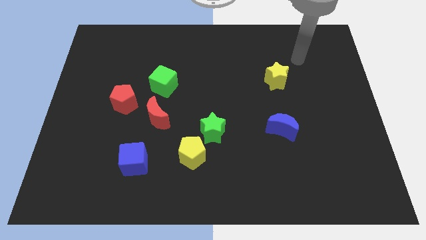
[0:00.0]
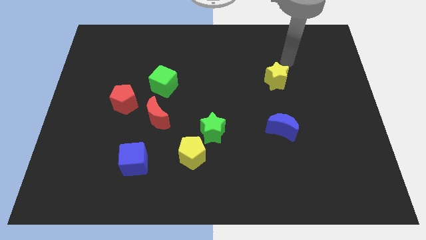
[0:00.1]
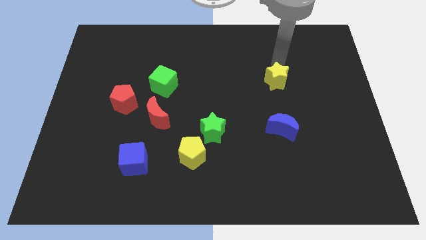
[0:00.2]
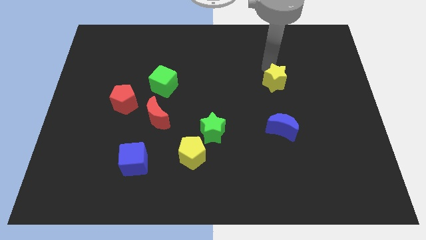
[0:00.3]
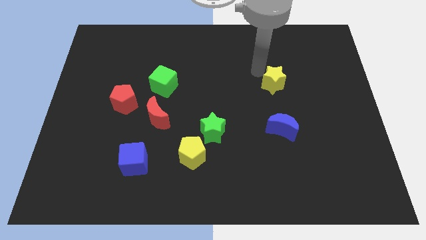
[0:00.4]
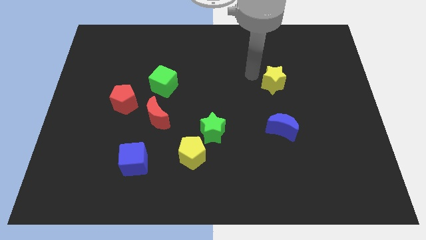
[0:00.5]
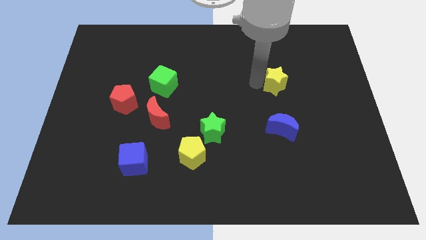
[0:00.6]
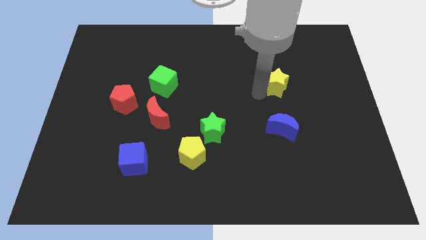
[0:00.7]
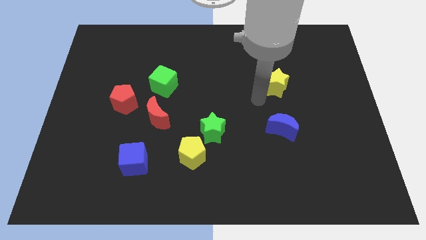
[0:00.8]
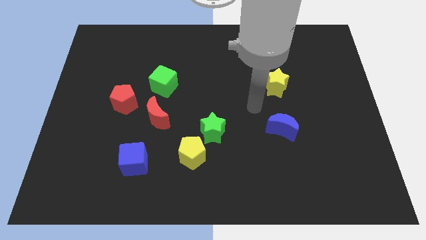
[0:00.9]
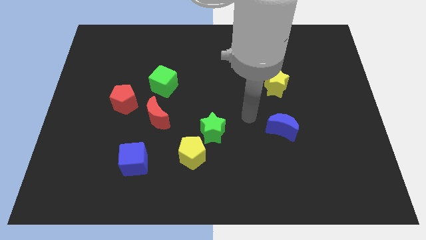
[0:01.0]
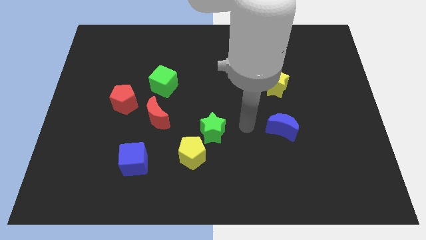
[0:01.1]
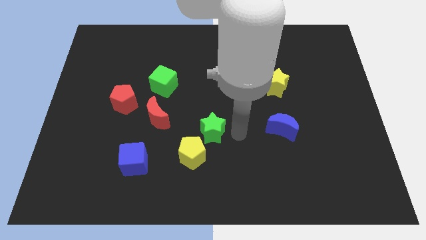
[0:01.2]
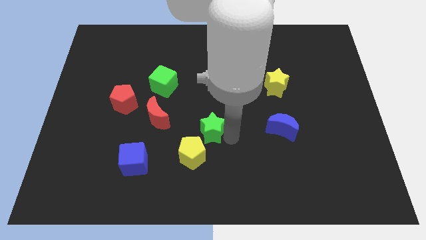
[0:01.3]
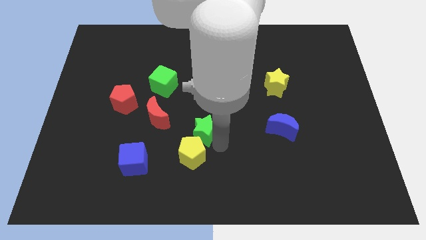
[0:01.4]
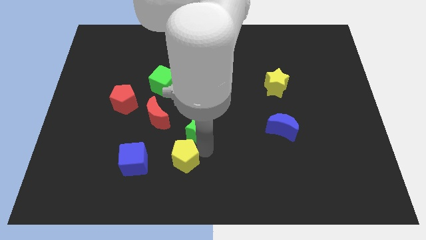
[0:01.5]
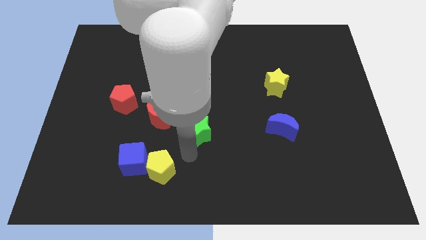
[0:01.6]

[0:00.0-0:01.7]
separate the green star from the yellow pentagon

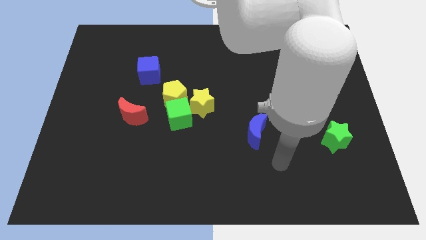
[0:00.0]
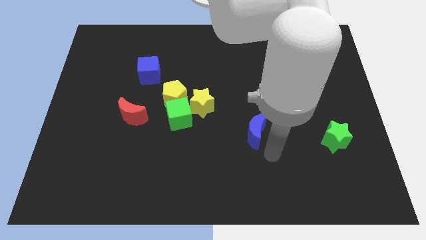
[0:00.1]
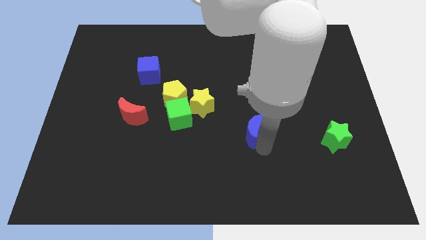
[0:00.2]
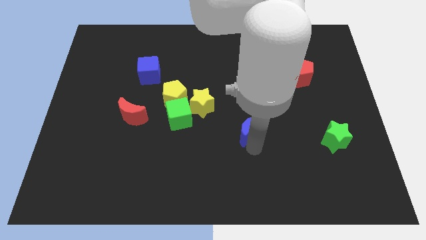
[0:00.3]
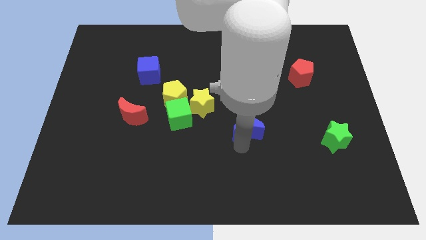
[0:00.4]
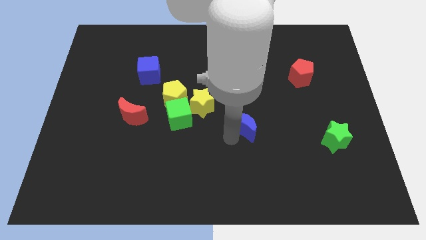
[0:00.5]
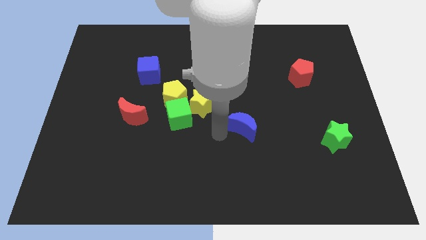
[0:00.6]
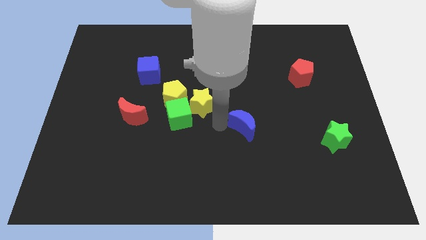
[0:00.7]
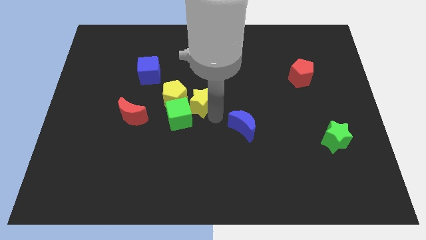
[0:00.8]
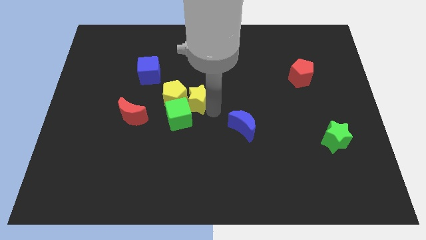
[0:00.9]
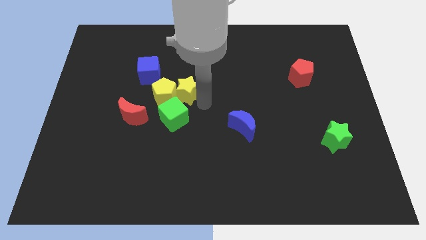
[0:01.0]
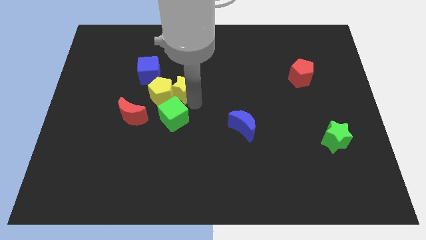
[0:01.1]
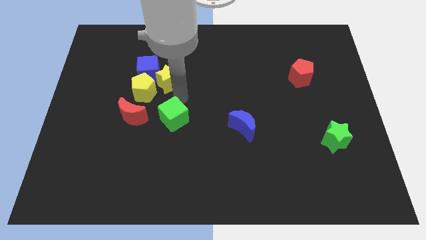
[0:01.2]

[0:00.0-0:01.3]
separate the green cube from the yellow pentagon and yellow star

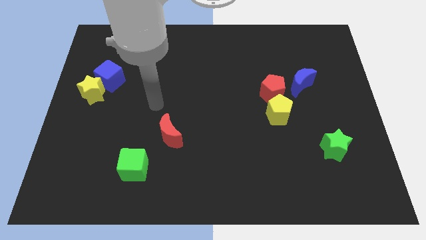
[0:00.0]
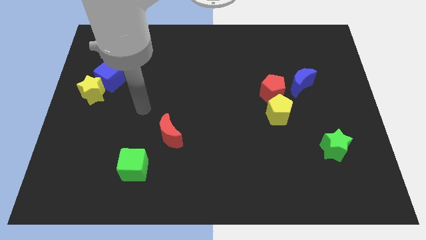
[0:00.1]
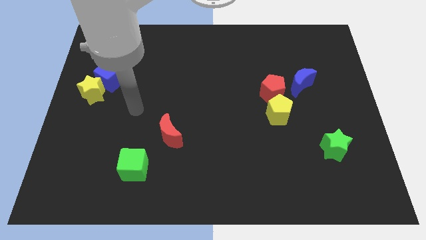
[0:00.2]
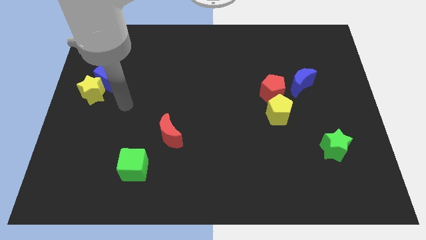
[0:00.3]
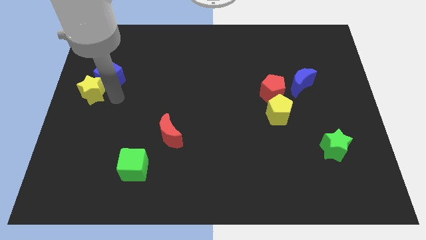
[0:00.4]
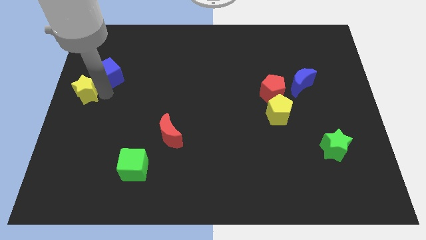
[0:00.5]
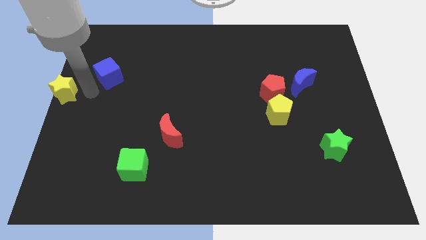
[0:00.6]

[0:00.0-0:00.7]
pull the blue cube apart from the yellow star

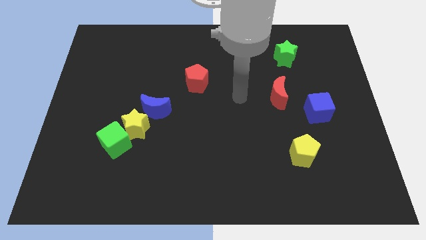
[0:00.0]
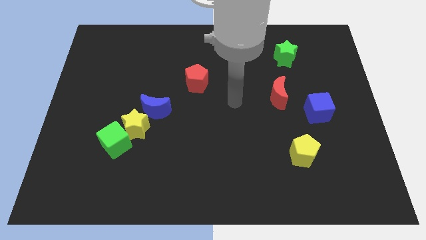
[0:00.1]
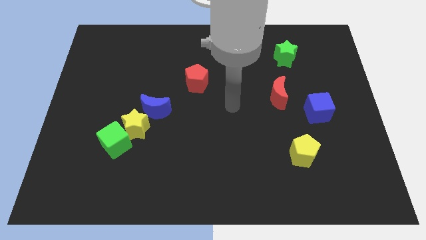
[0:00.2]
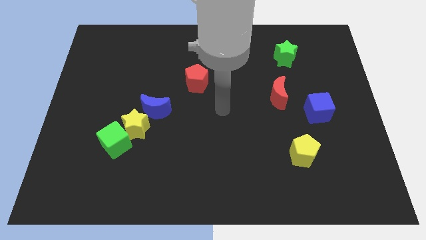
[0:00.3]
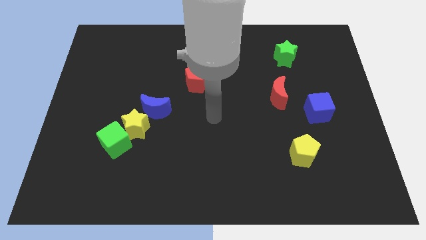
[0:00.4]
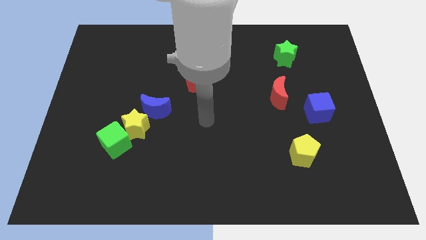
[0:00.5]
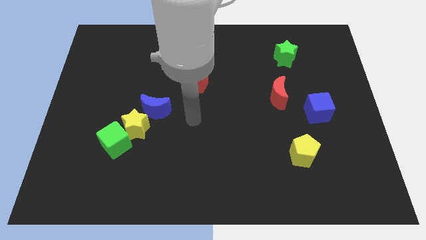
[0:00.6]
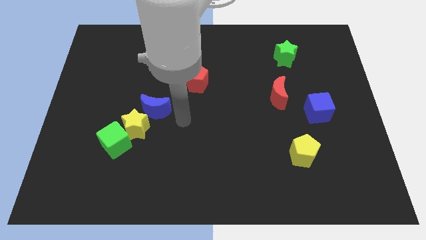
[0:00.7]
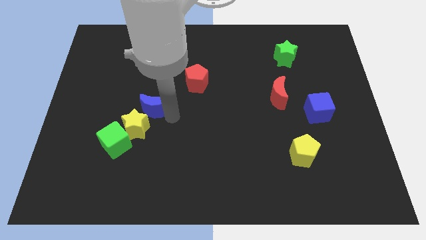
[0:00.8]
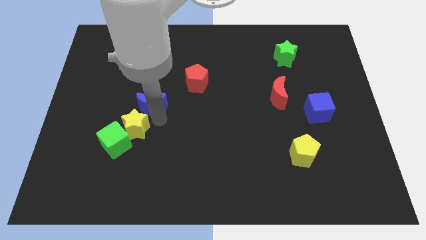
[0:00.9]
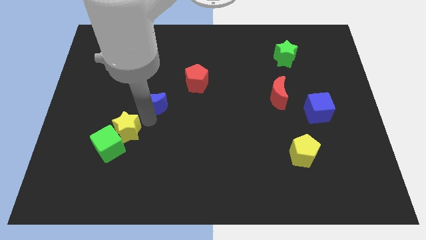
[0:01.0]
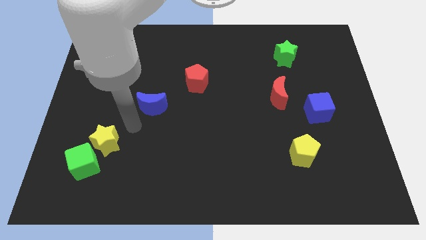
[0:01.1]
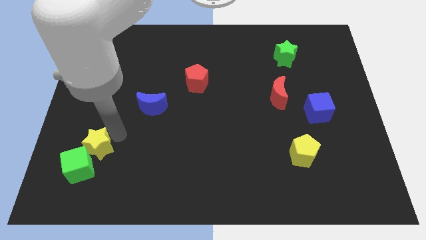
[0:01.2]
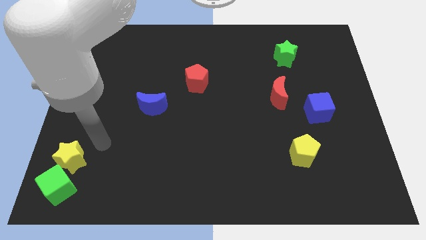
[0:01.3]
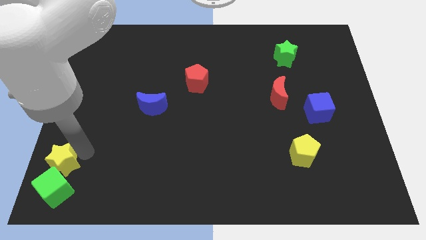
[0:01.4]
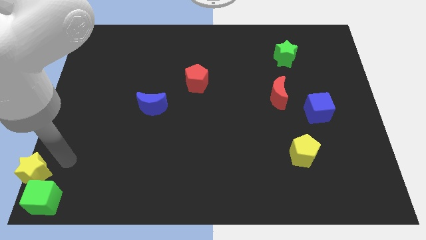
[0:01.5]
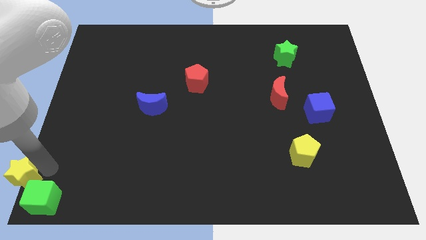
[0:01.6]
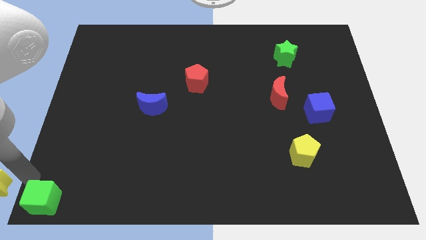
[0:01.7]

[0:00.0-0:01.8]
pull the green cube apart from the yellow star

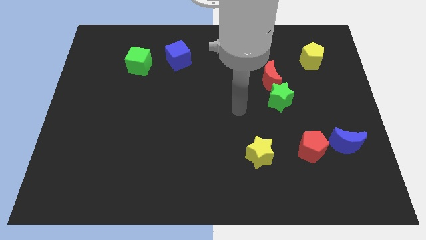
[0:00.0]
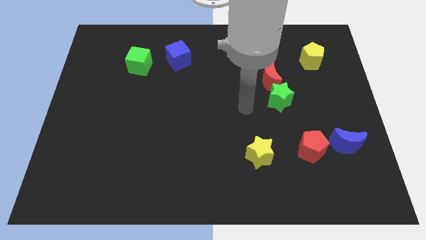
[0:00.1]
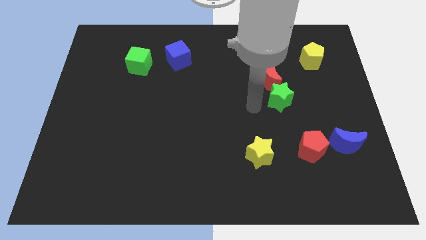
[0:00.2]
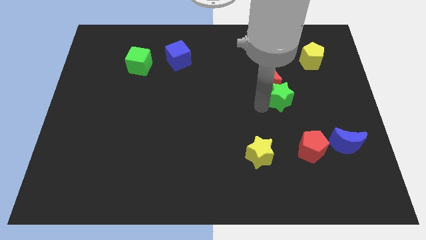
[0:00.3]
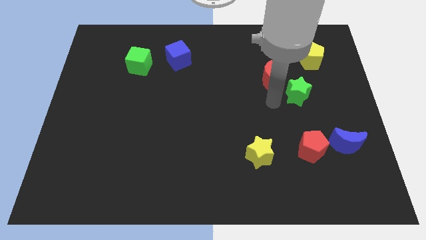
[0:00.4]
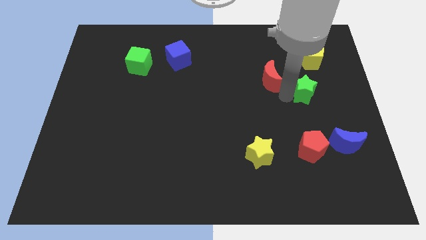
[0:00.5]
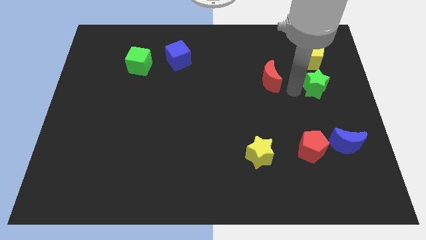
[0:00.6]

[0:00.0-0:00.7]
pull the red moon apart from the green star

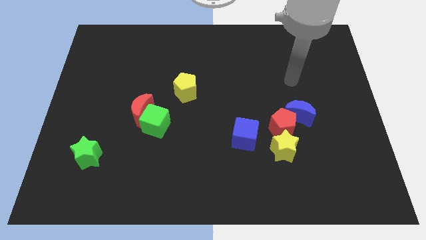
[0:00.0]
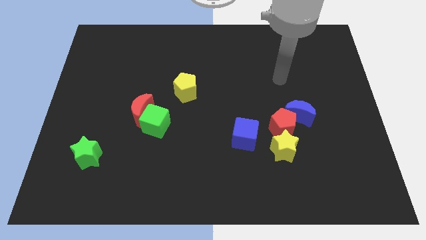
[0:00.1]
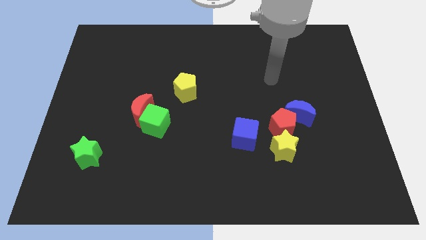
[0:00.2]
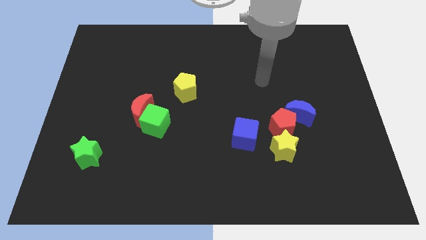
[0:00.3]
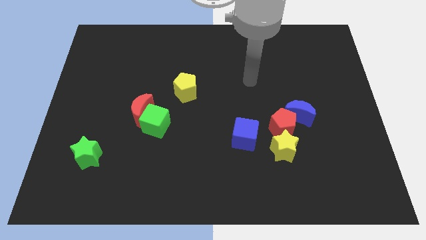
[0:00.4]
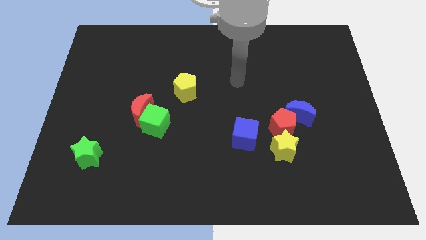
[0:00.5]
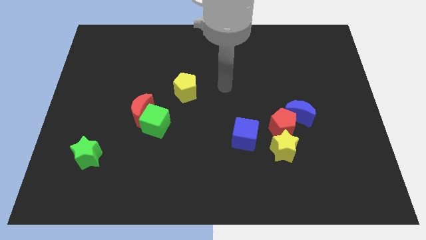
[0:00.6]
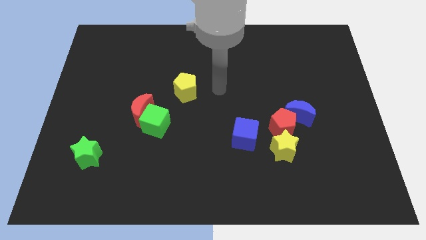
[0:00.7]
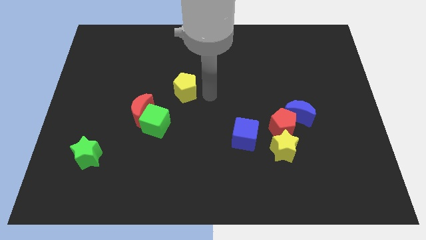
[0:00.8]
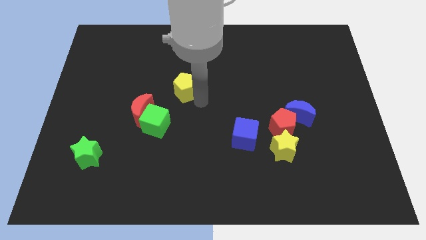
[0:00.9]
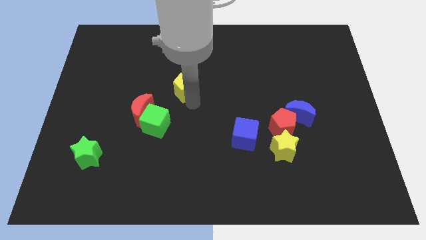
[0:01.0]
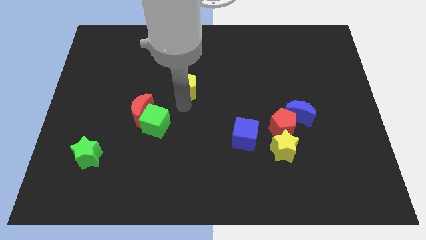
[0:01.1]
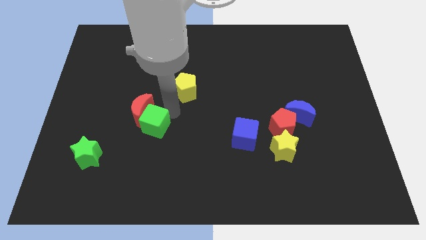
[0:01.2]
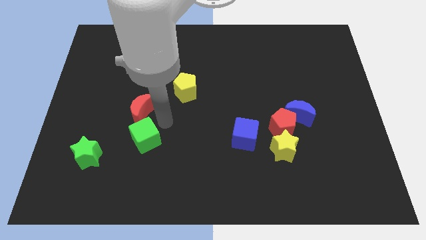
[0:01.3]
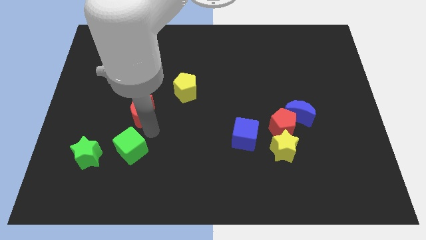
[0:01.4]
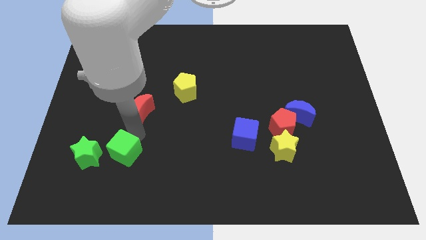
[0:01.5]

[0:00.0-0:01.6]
move the red moon away from the green cube

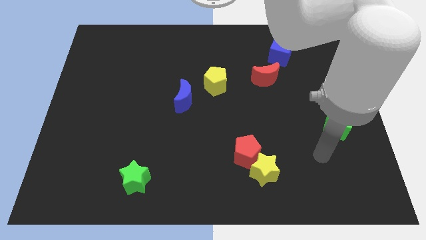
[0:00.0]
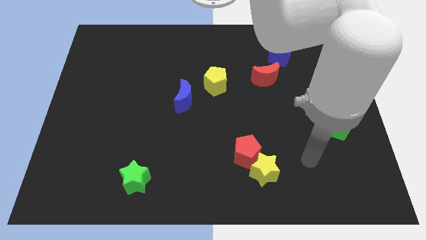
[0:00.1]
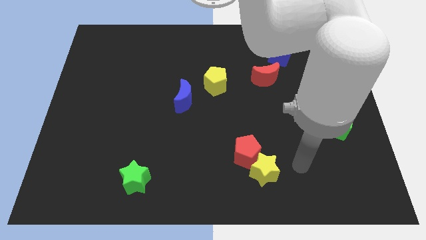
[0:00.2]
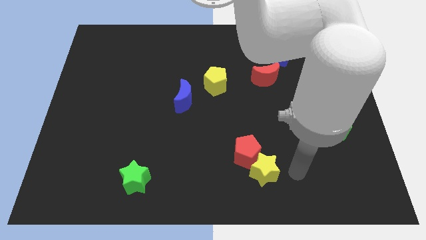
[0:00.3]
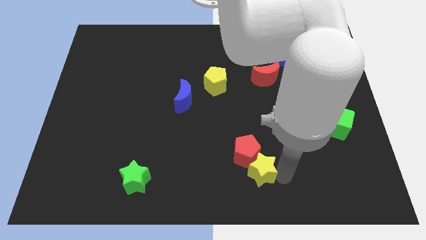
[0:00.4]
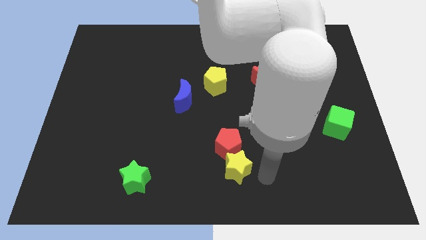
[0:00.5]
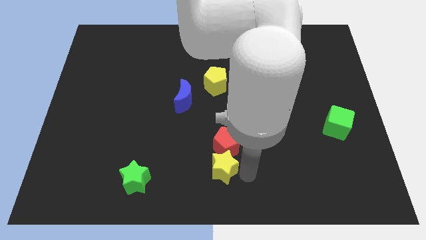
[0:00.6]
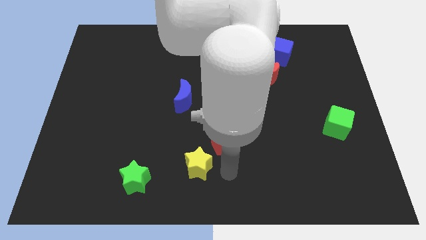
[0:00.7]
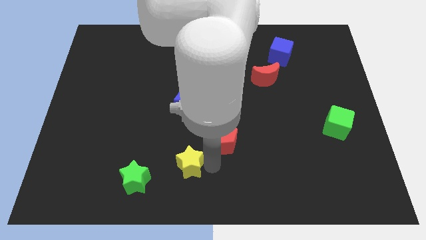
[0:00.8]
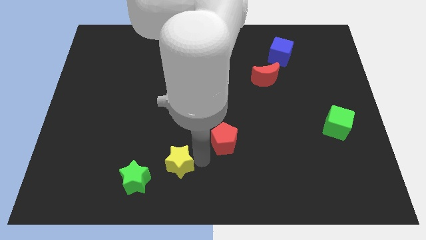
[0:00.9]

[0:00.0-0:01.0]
separate the red pentagon from the yellow star

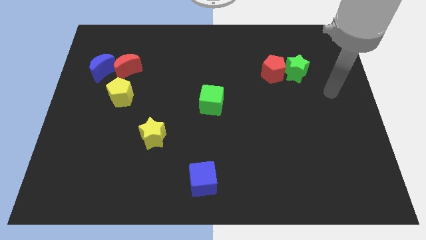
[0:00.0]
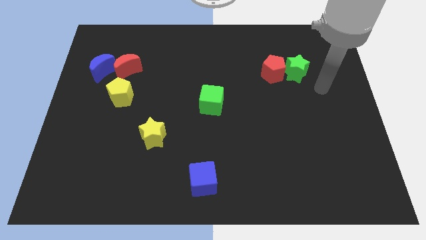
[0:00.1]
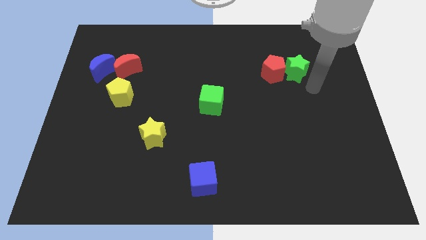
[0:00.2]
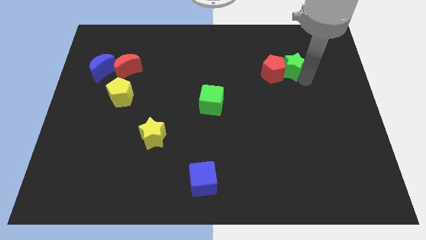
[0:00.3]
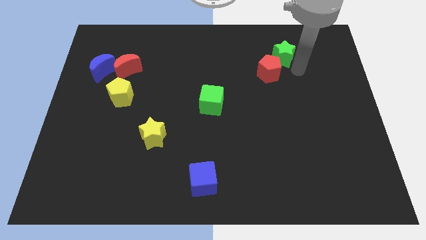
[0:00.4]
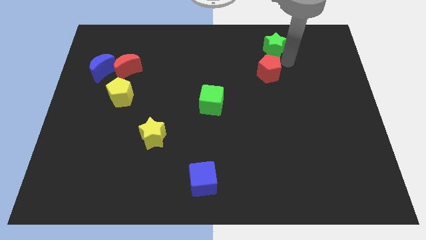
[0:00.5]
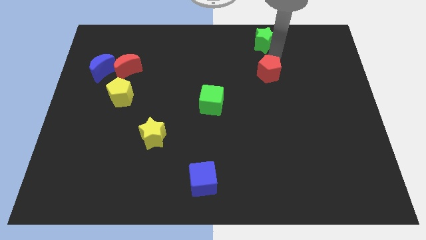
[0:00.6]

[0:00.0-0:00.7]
separate the red pentagon from the green star
